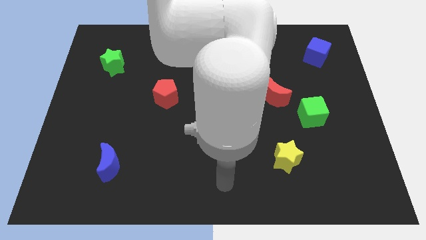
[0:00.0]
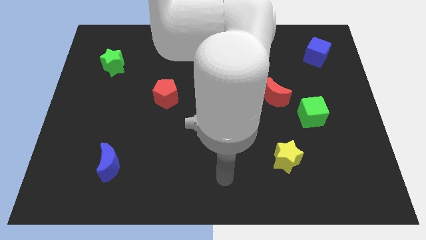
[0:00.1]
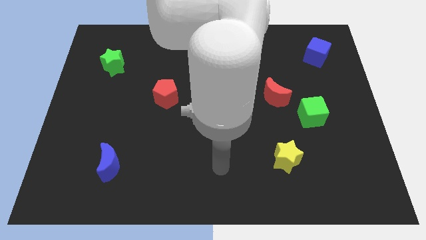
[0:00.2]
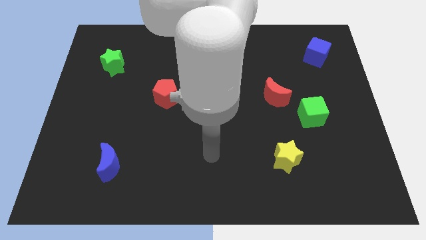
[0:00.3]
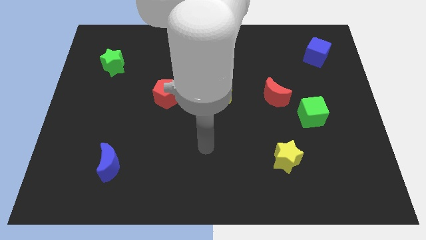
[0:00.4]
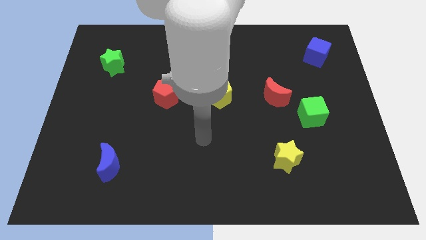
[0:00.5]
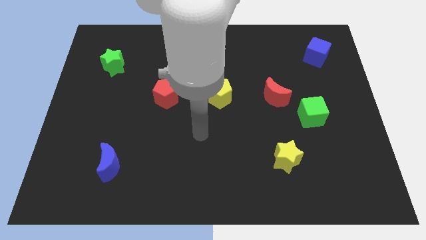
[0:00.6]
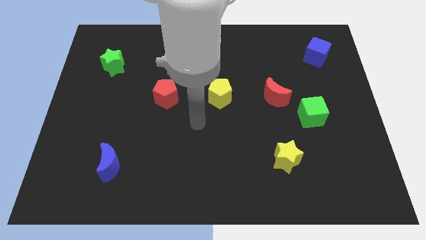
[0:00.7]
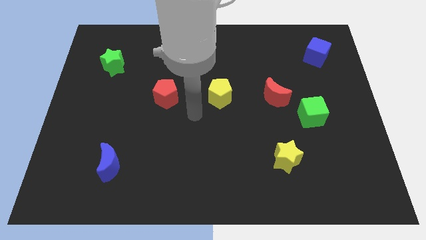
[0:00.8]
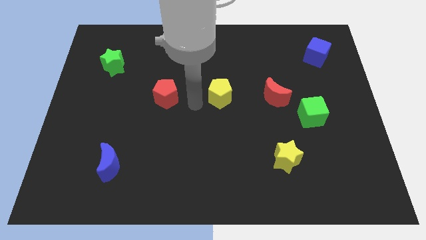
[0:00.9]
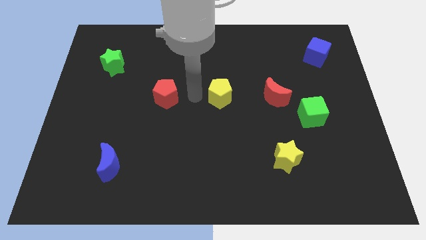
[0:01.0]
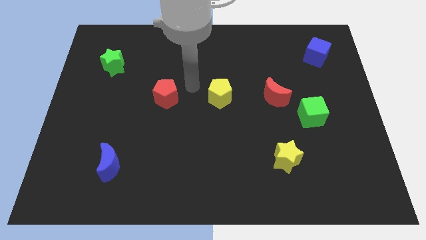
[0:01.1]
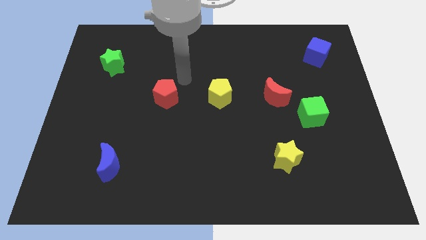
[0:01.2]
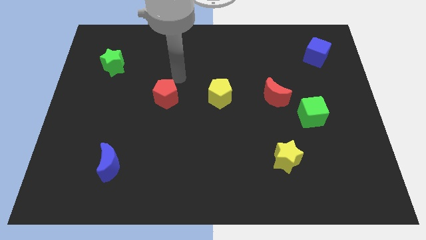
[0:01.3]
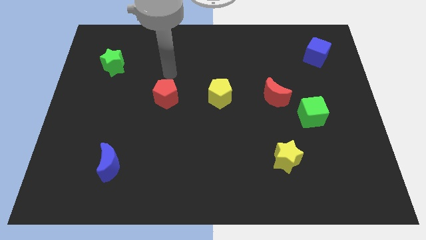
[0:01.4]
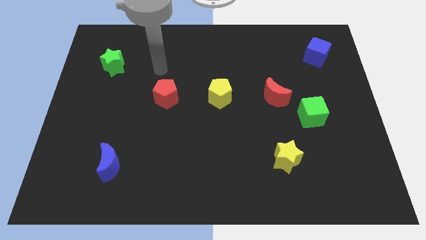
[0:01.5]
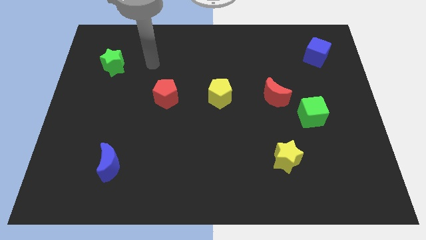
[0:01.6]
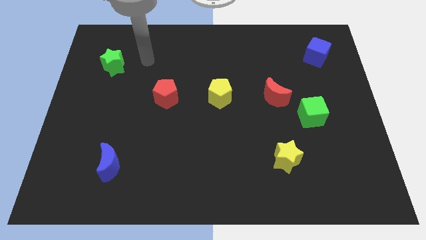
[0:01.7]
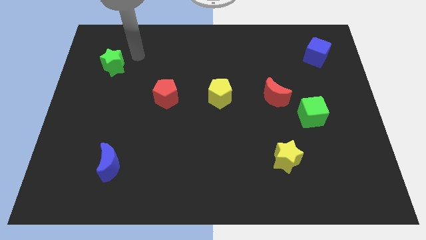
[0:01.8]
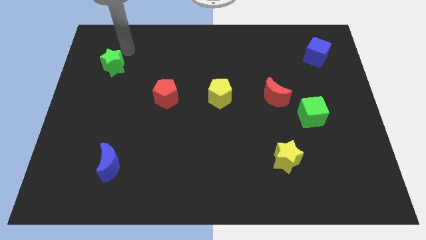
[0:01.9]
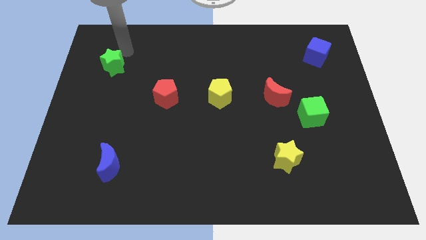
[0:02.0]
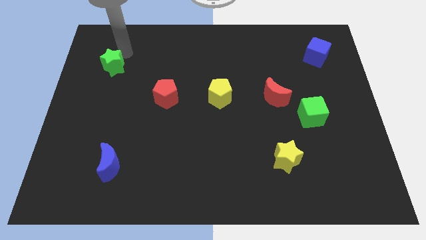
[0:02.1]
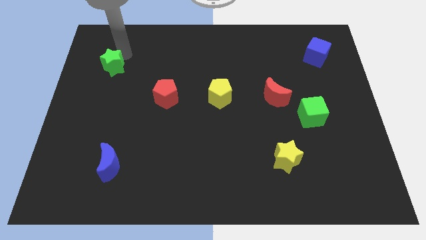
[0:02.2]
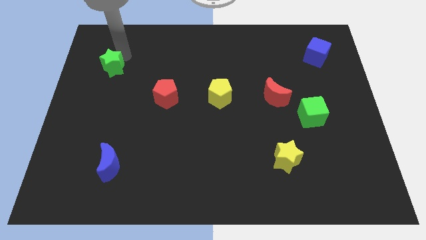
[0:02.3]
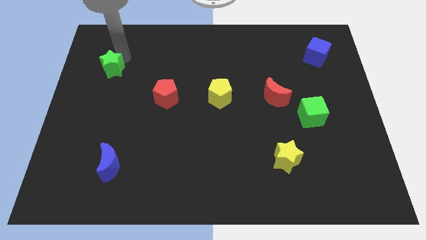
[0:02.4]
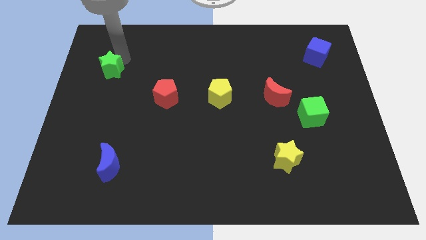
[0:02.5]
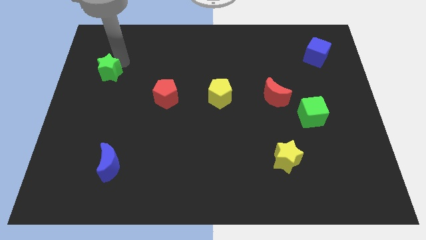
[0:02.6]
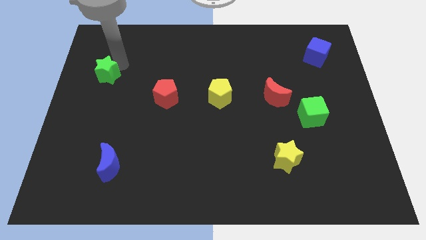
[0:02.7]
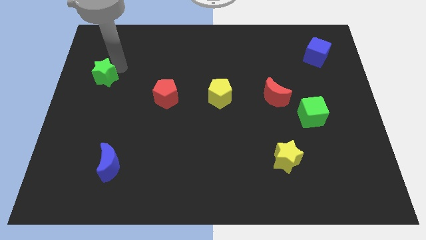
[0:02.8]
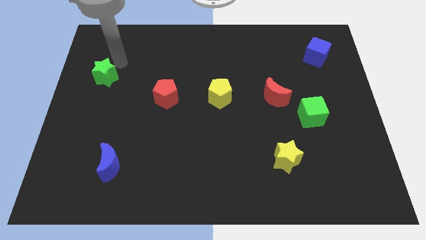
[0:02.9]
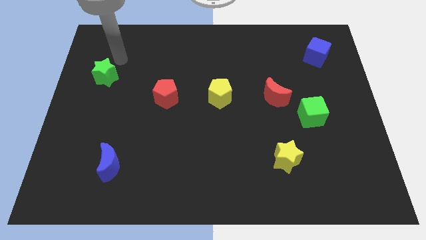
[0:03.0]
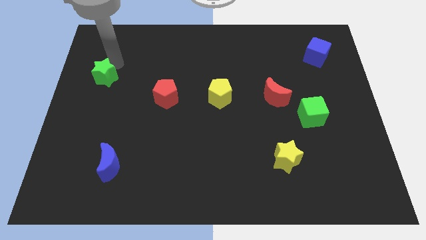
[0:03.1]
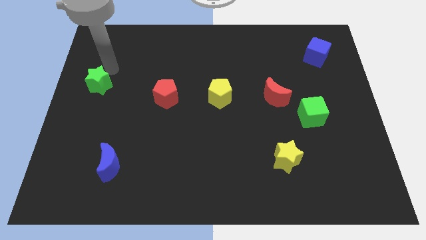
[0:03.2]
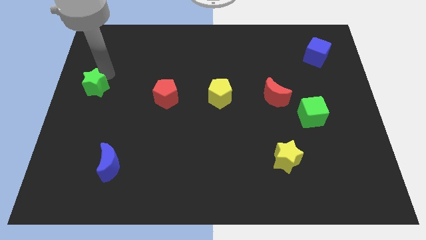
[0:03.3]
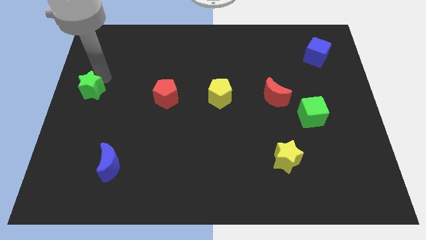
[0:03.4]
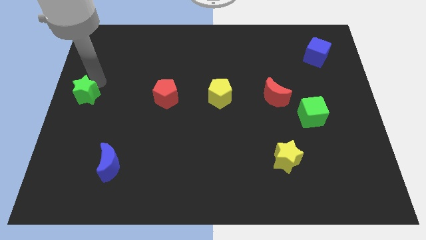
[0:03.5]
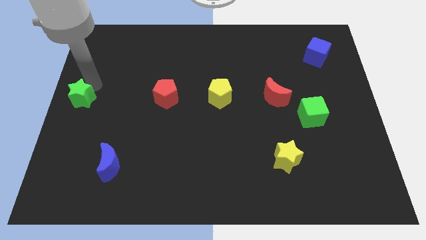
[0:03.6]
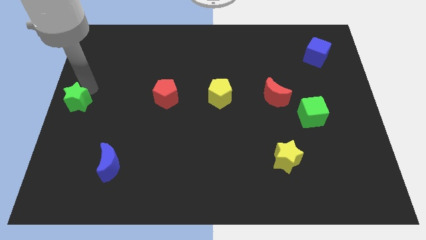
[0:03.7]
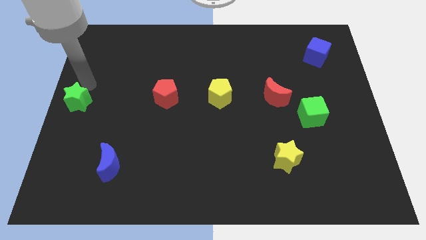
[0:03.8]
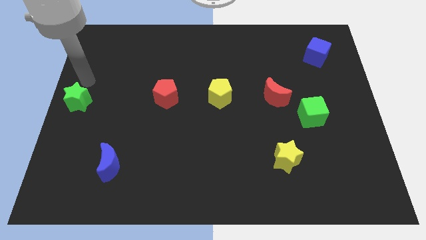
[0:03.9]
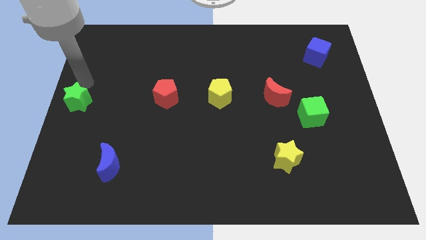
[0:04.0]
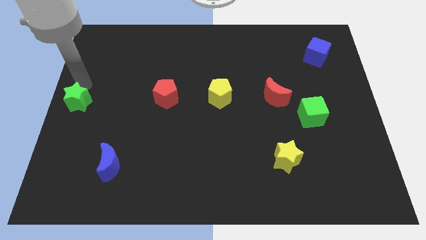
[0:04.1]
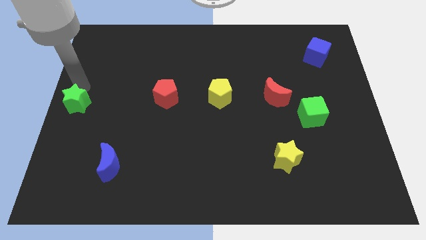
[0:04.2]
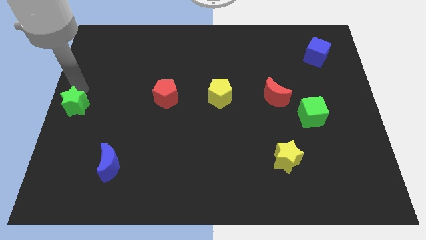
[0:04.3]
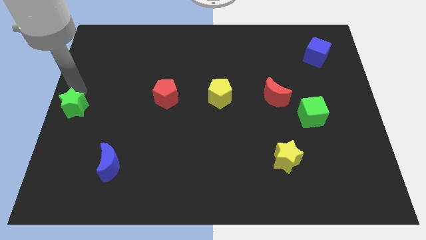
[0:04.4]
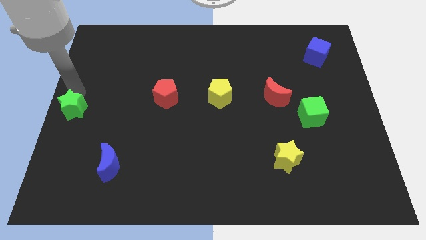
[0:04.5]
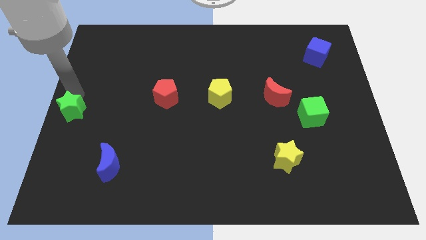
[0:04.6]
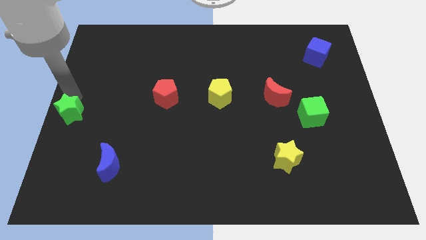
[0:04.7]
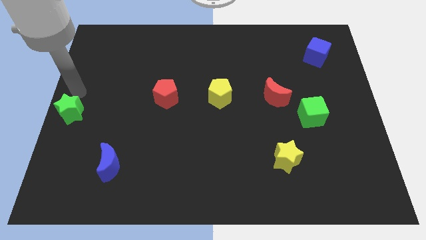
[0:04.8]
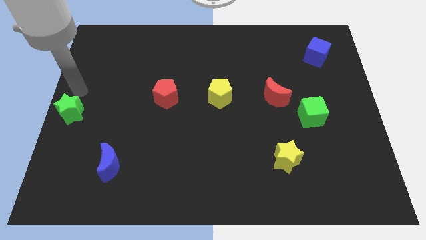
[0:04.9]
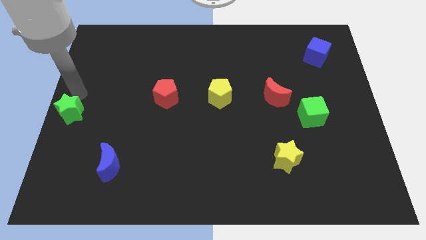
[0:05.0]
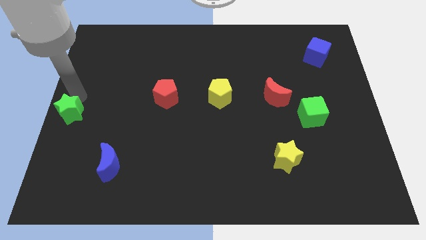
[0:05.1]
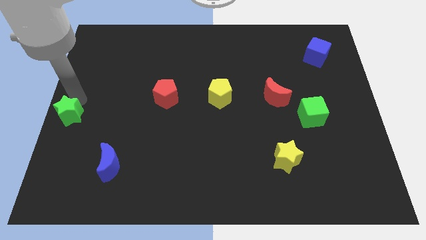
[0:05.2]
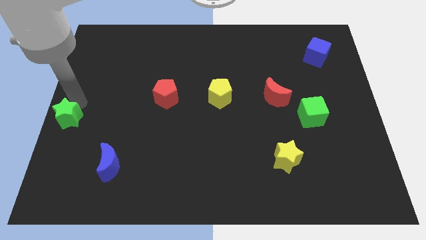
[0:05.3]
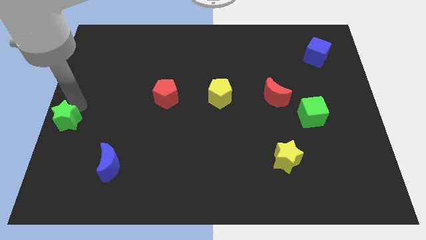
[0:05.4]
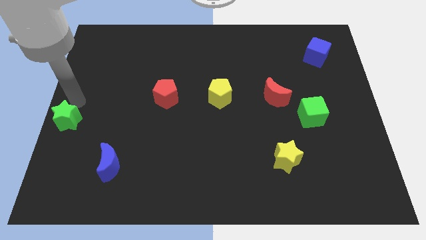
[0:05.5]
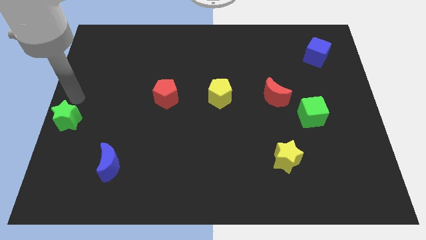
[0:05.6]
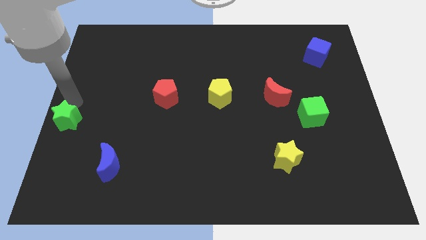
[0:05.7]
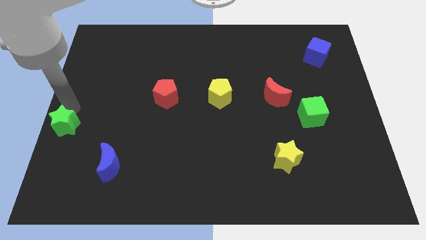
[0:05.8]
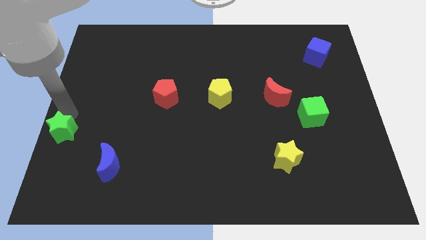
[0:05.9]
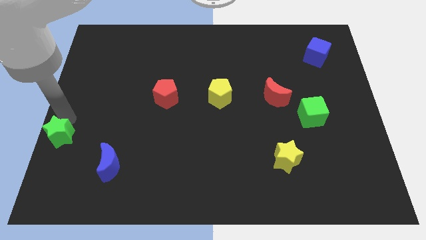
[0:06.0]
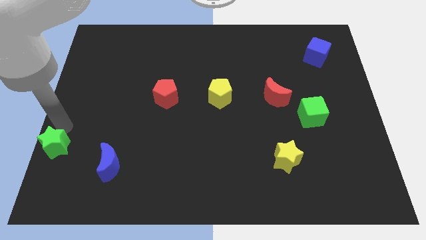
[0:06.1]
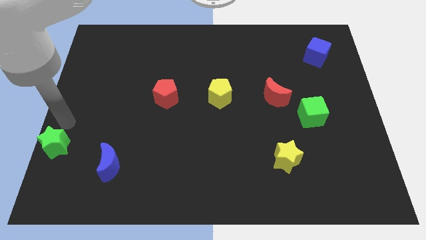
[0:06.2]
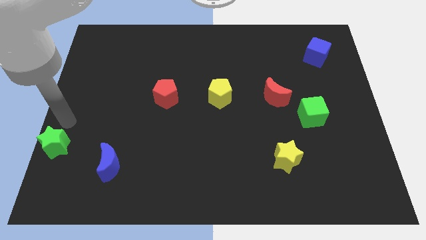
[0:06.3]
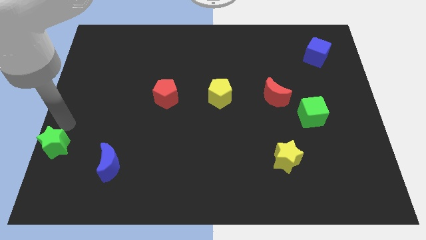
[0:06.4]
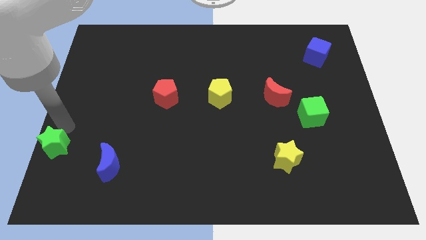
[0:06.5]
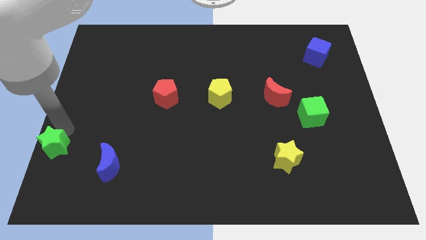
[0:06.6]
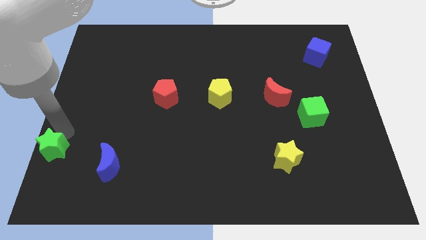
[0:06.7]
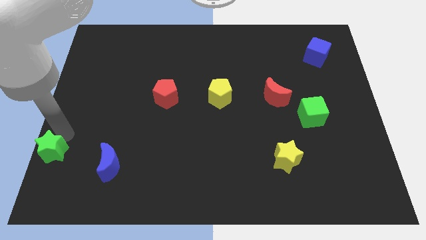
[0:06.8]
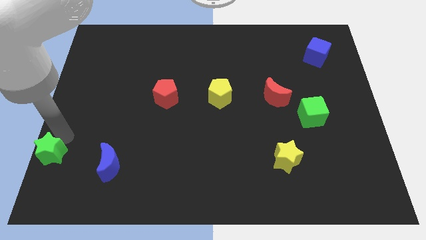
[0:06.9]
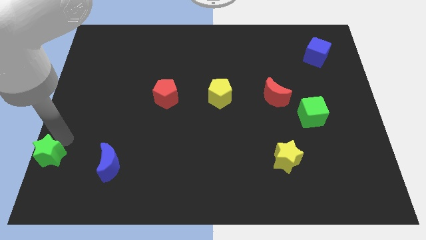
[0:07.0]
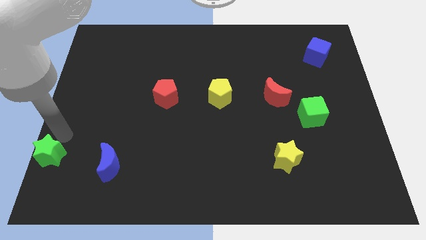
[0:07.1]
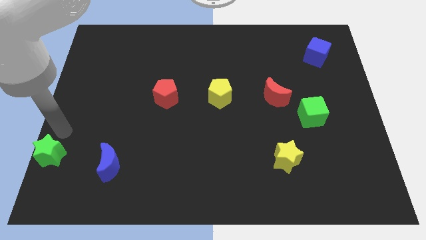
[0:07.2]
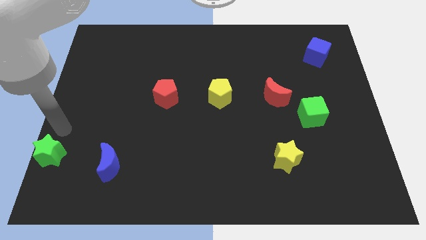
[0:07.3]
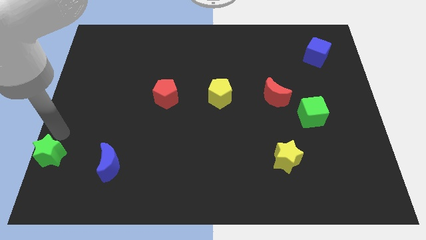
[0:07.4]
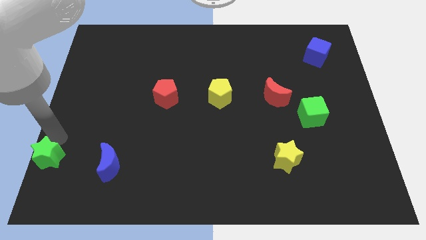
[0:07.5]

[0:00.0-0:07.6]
push the green star to the bottom left
